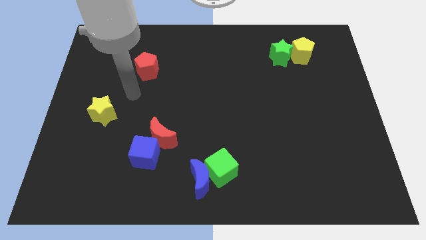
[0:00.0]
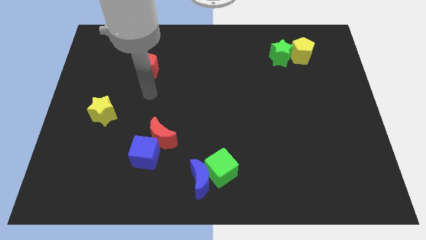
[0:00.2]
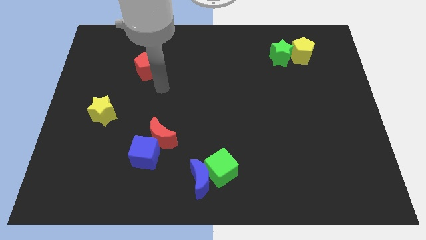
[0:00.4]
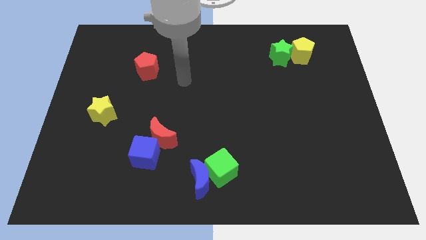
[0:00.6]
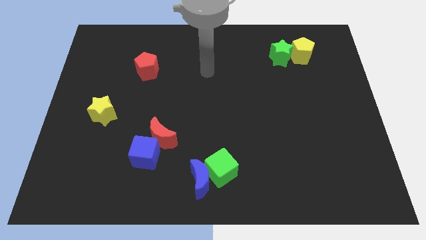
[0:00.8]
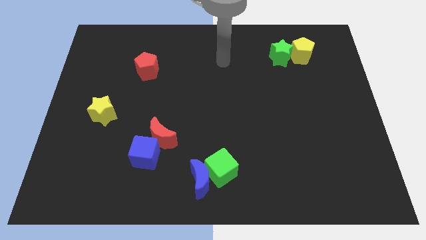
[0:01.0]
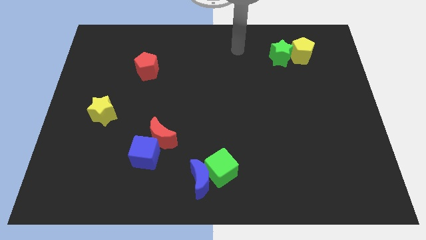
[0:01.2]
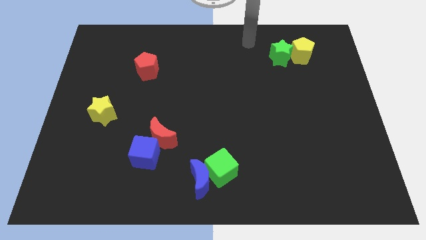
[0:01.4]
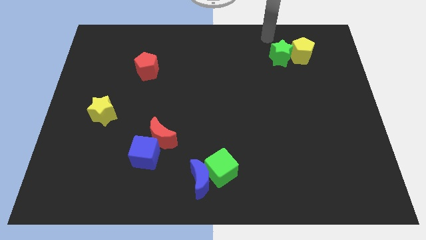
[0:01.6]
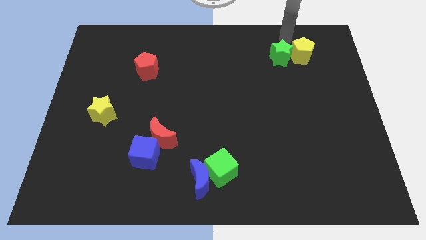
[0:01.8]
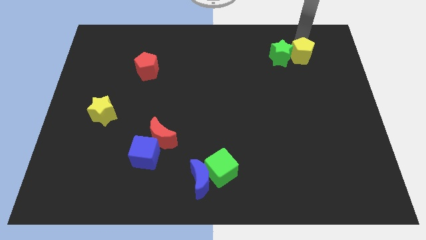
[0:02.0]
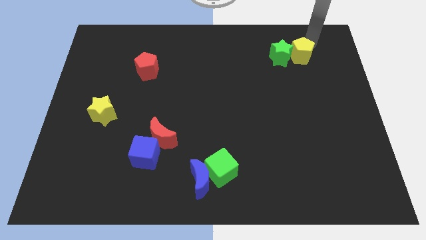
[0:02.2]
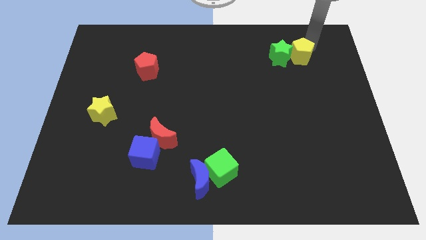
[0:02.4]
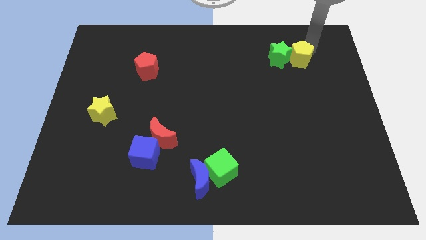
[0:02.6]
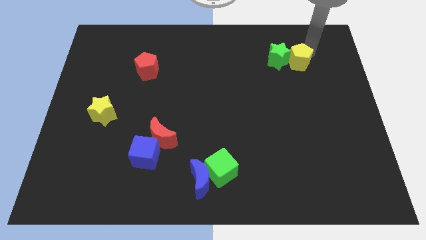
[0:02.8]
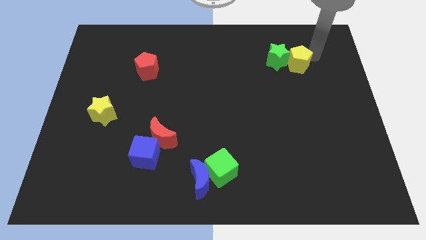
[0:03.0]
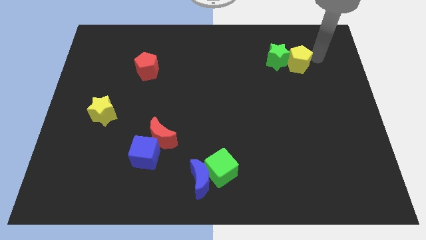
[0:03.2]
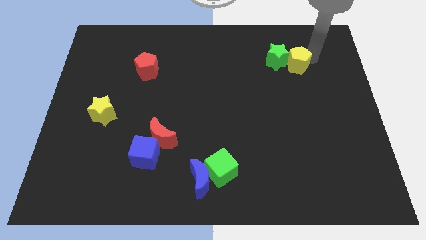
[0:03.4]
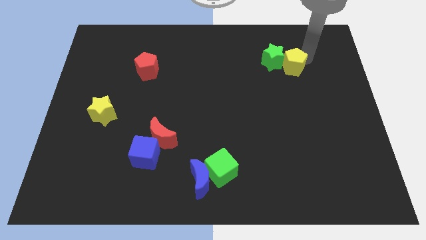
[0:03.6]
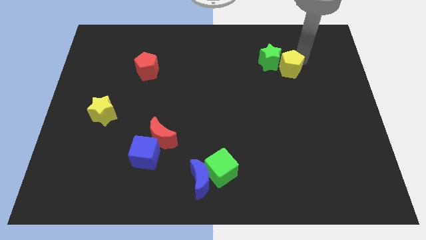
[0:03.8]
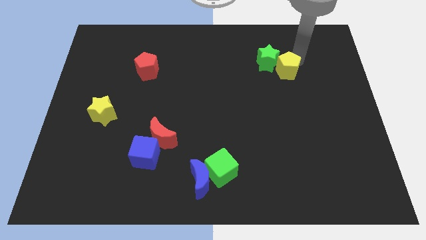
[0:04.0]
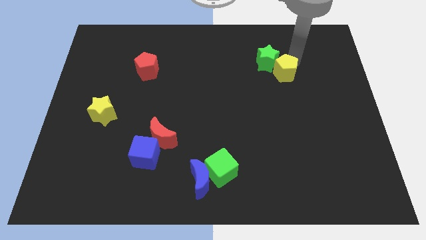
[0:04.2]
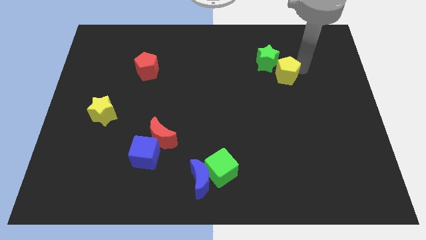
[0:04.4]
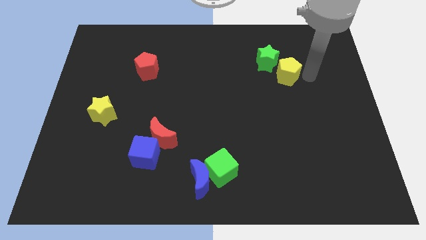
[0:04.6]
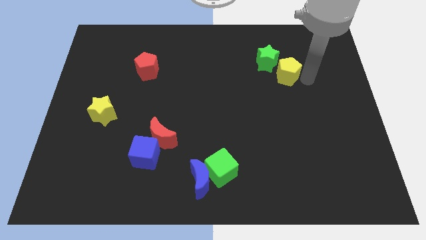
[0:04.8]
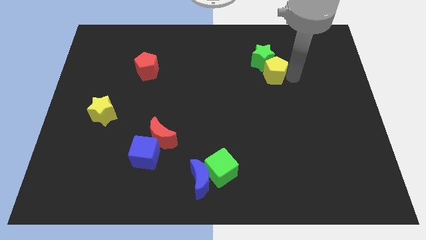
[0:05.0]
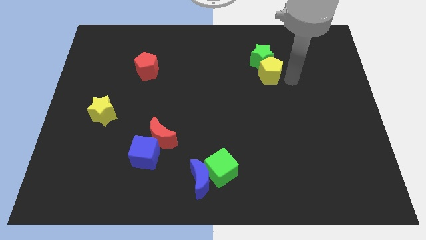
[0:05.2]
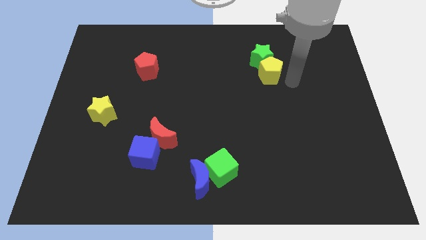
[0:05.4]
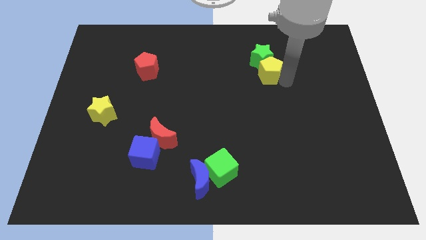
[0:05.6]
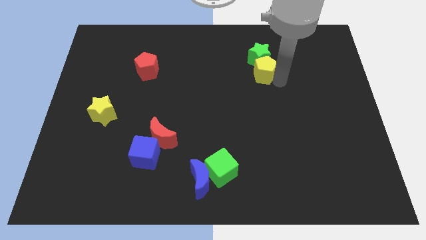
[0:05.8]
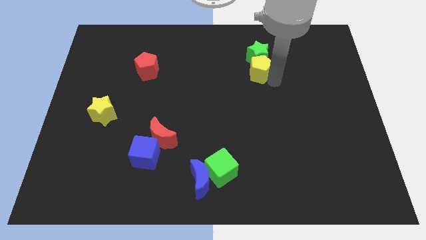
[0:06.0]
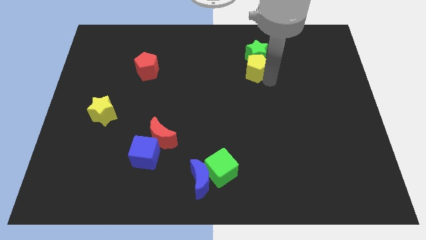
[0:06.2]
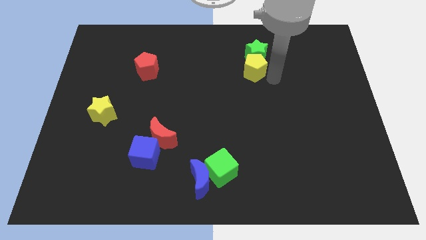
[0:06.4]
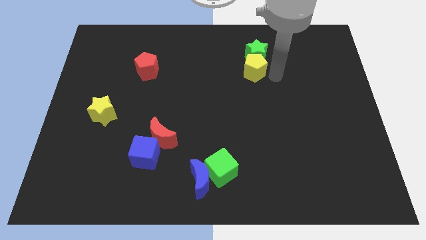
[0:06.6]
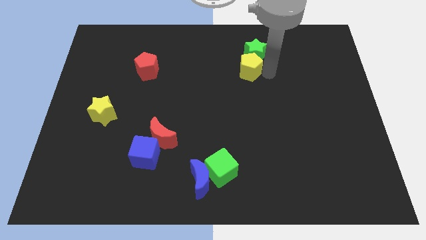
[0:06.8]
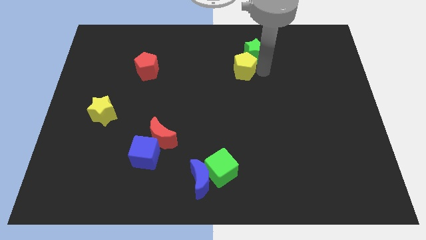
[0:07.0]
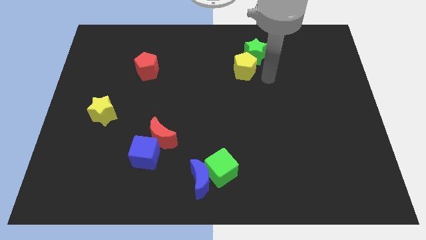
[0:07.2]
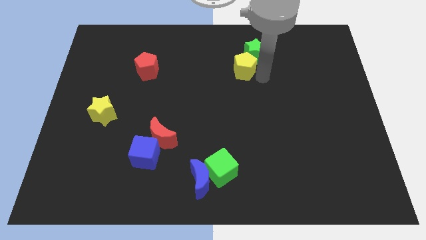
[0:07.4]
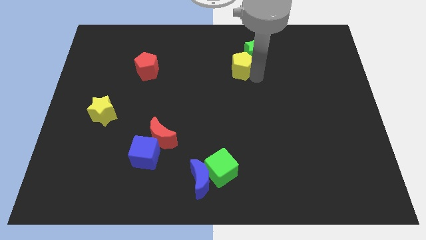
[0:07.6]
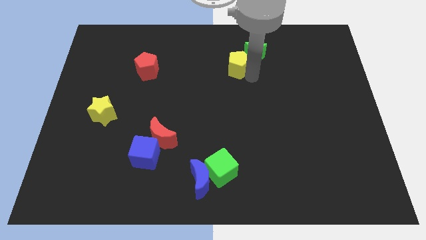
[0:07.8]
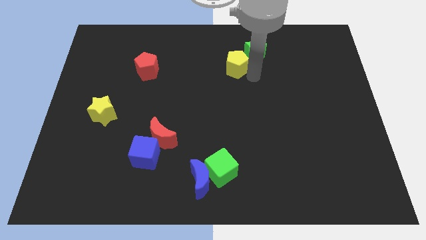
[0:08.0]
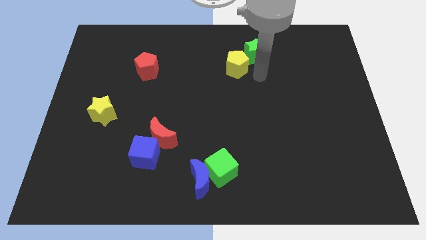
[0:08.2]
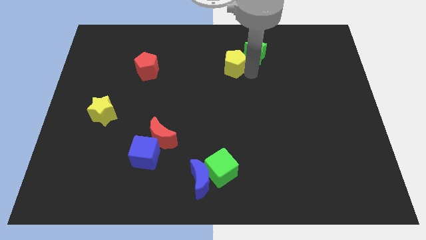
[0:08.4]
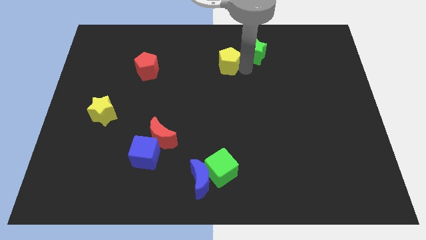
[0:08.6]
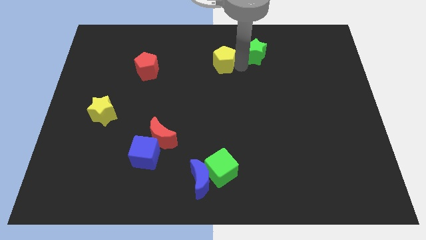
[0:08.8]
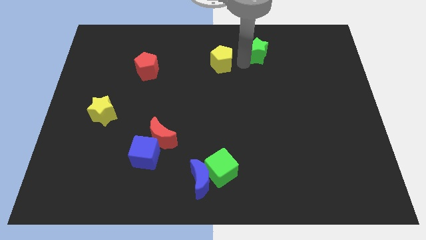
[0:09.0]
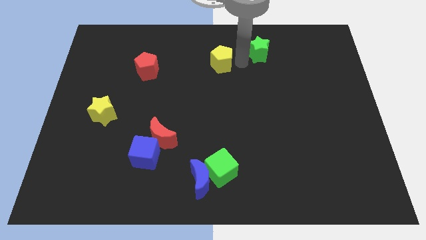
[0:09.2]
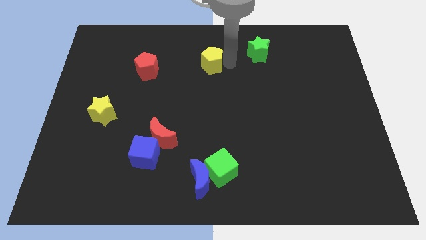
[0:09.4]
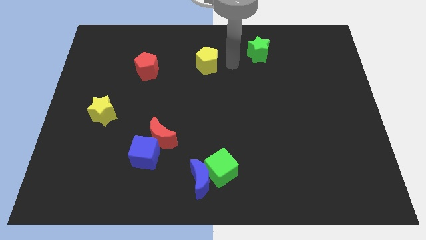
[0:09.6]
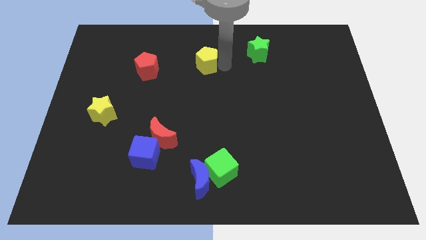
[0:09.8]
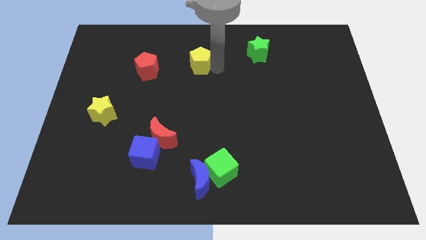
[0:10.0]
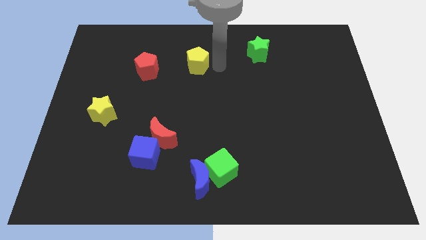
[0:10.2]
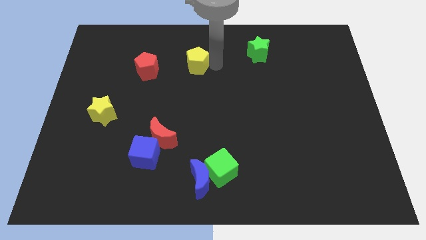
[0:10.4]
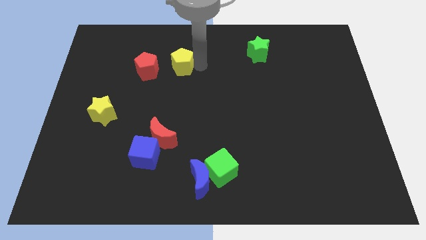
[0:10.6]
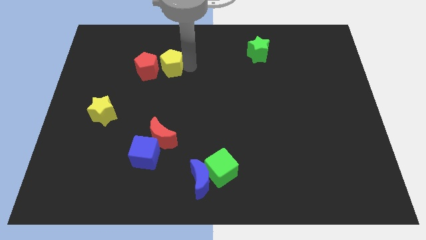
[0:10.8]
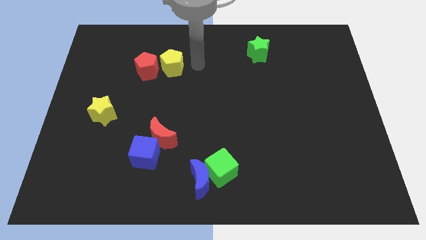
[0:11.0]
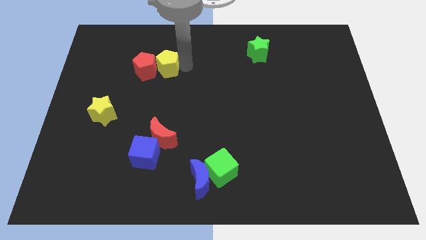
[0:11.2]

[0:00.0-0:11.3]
slide the yellow pentagon next to the red pentagon

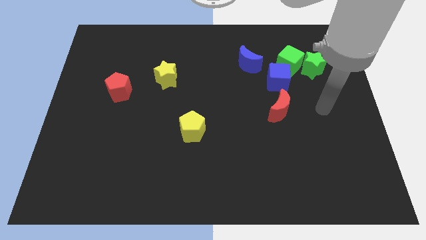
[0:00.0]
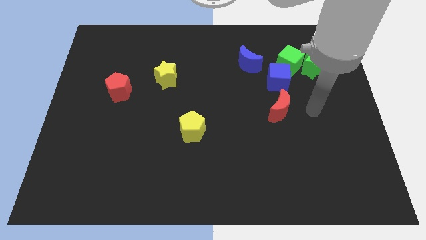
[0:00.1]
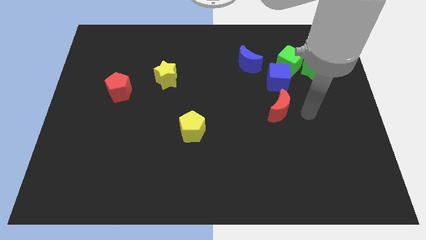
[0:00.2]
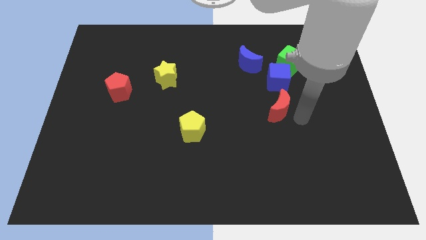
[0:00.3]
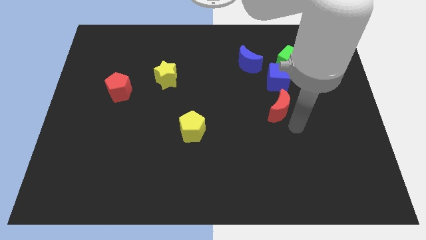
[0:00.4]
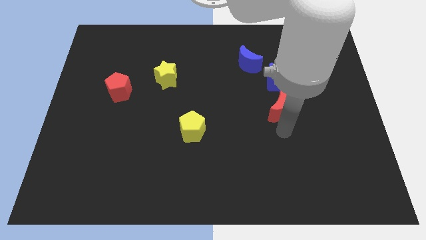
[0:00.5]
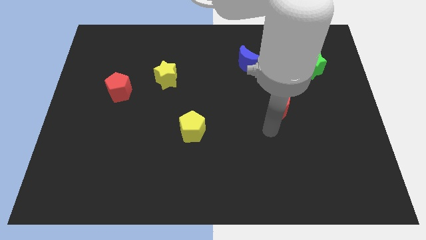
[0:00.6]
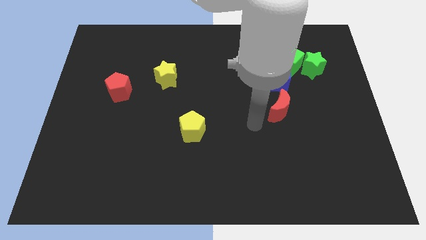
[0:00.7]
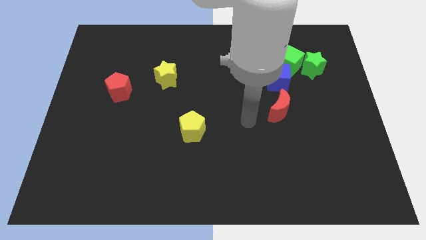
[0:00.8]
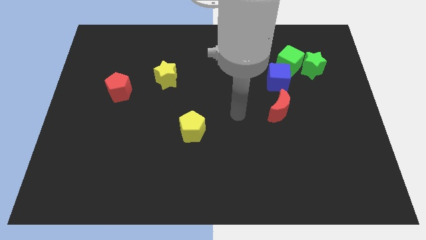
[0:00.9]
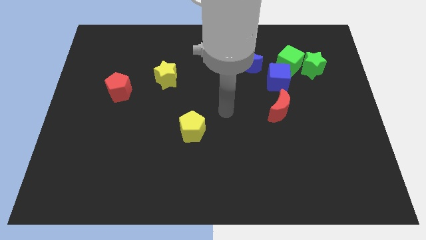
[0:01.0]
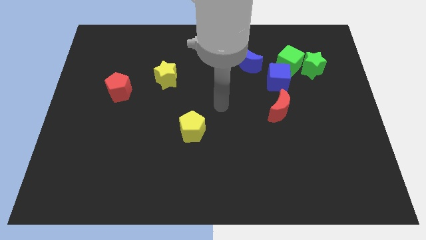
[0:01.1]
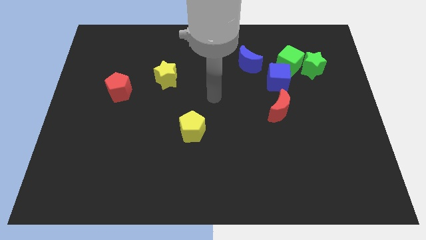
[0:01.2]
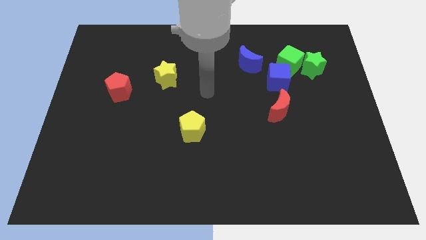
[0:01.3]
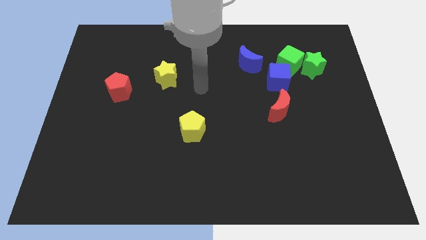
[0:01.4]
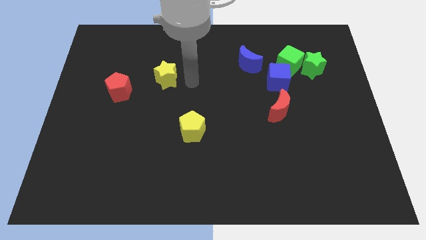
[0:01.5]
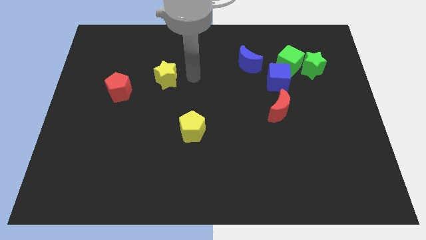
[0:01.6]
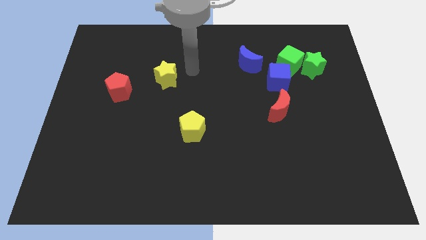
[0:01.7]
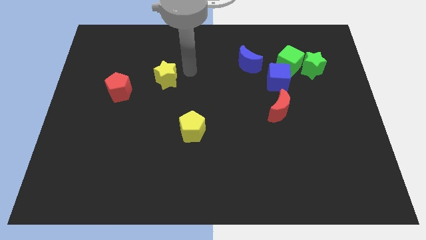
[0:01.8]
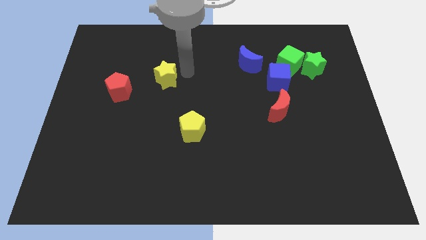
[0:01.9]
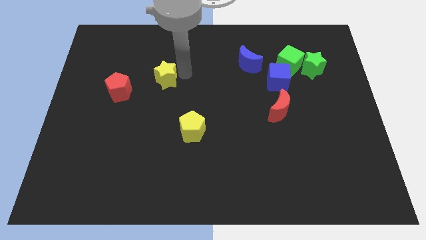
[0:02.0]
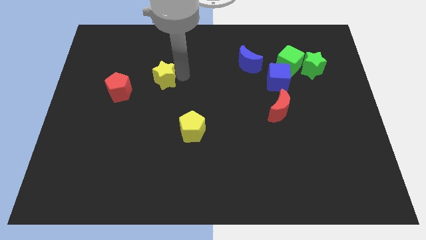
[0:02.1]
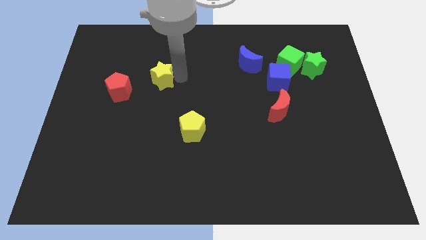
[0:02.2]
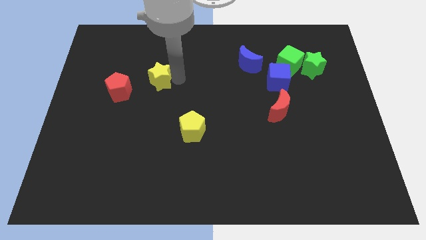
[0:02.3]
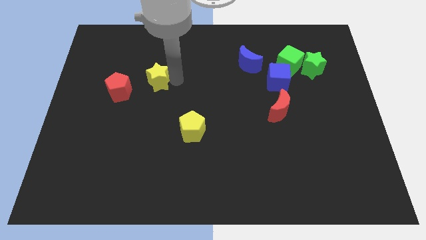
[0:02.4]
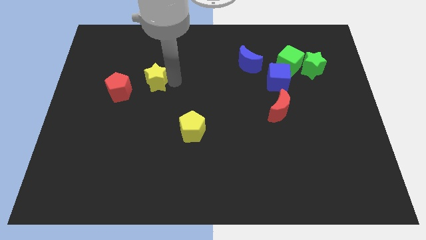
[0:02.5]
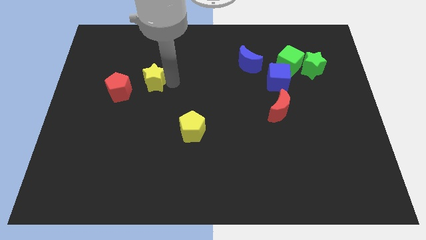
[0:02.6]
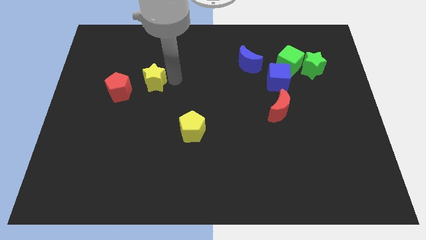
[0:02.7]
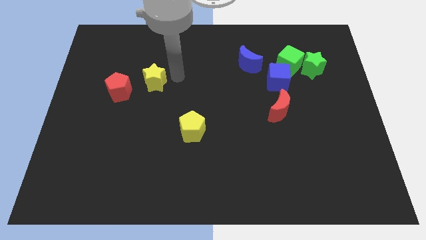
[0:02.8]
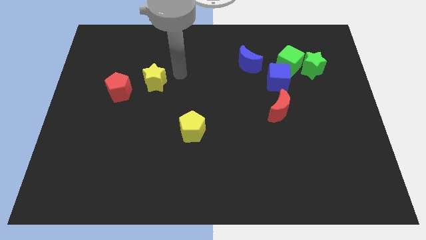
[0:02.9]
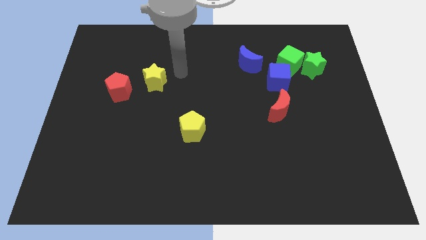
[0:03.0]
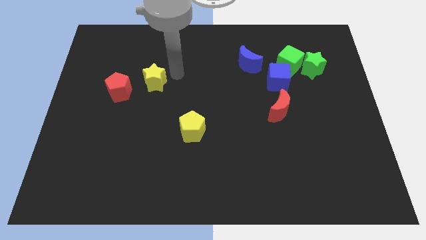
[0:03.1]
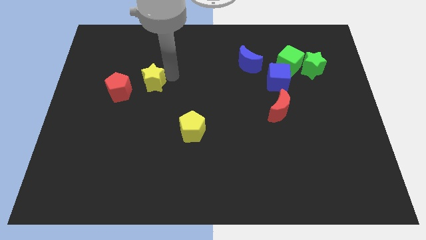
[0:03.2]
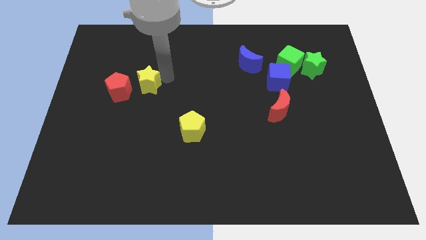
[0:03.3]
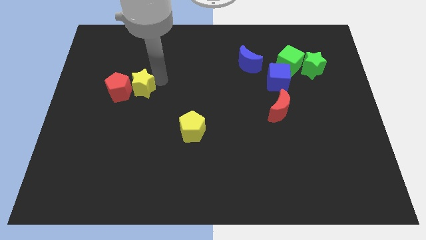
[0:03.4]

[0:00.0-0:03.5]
move the yellow star to the red pentagon
